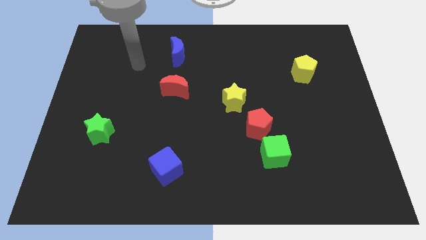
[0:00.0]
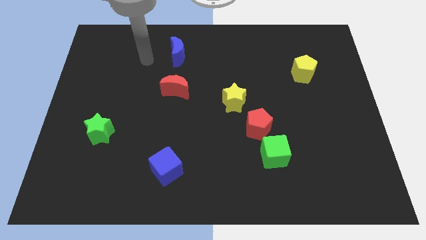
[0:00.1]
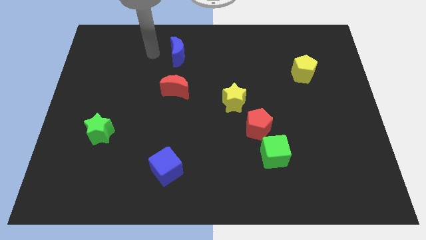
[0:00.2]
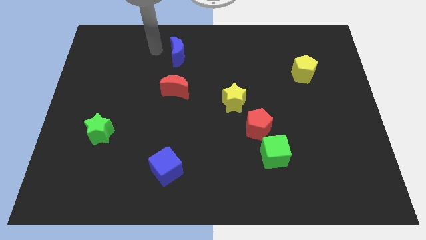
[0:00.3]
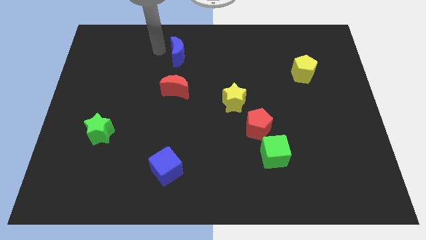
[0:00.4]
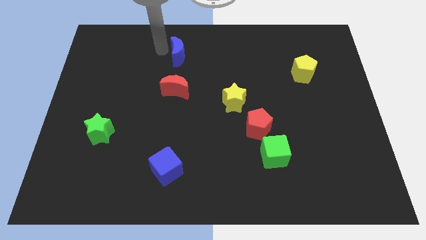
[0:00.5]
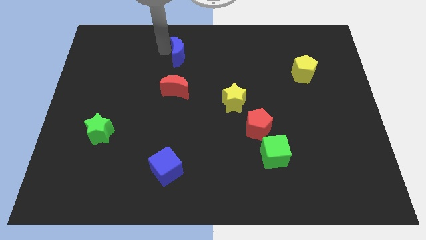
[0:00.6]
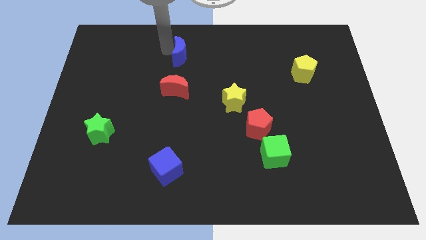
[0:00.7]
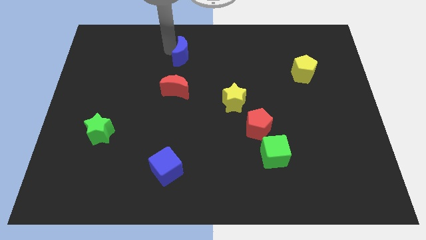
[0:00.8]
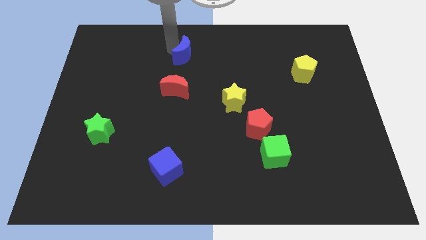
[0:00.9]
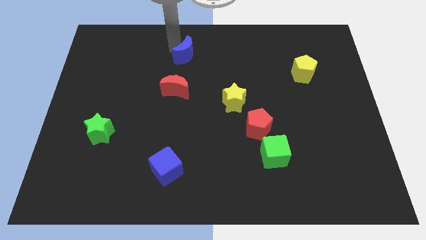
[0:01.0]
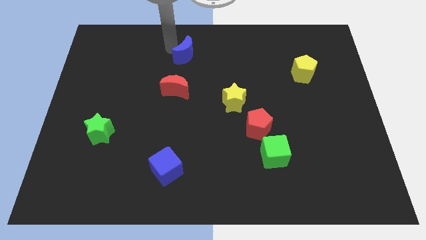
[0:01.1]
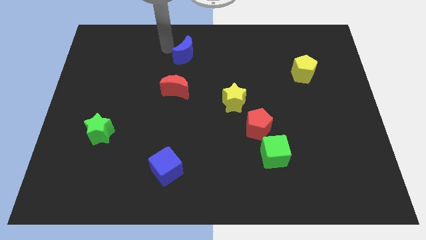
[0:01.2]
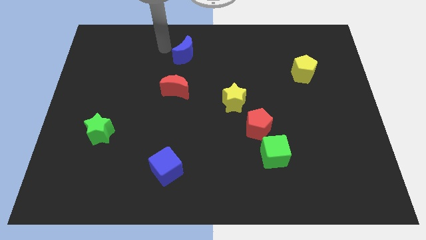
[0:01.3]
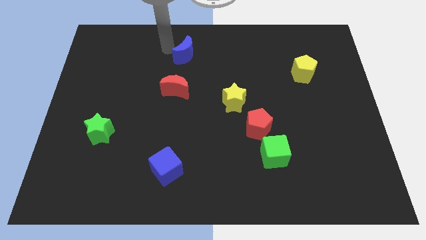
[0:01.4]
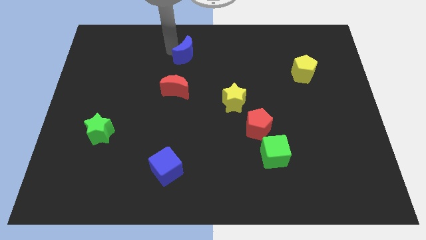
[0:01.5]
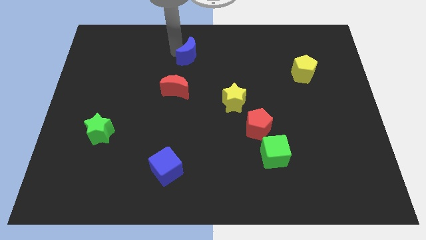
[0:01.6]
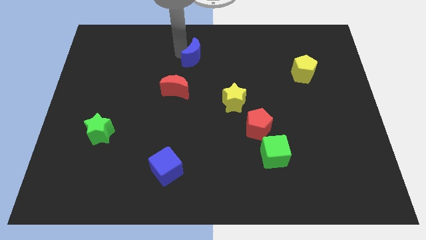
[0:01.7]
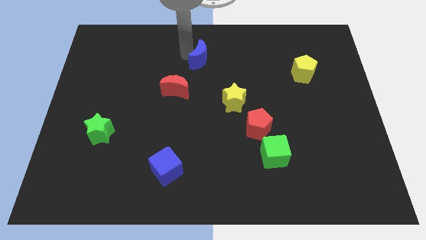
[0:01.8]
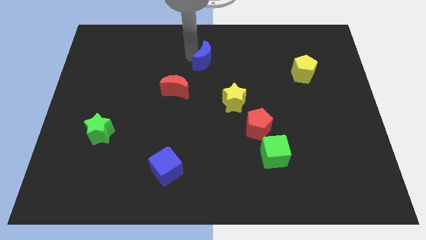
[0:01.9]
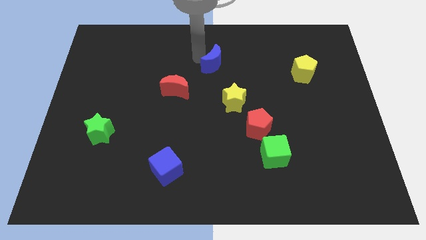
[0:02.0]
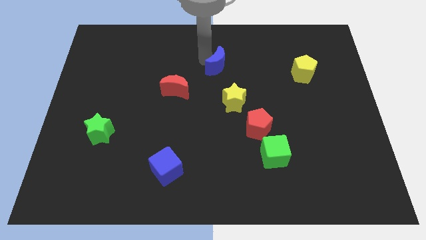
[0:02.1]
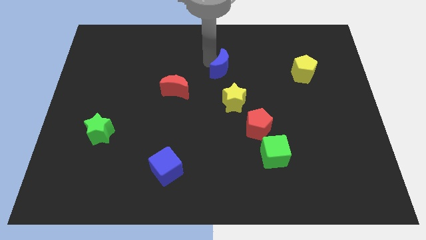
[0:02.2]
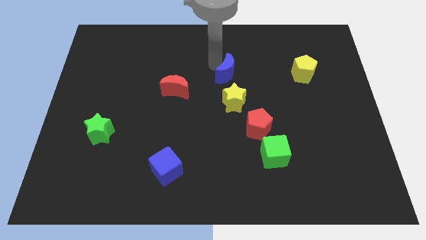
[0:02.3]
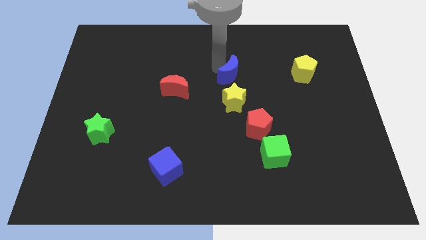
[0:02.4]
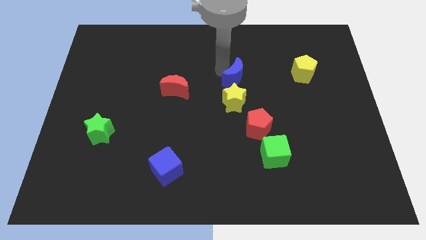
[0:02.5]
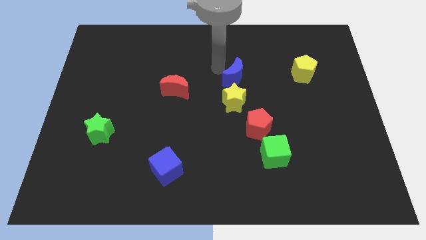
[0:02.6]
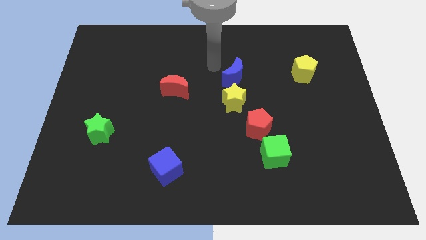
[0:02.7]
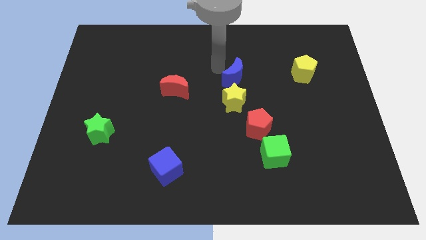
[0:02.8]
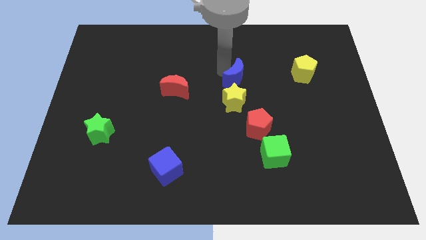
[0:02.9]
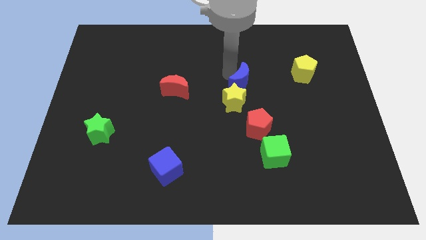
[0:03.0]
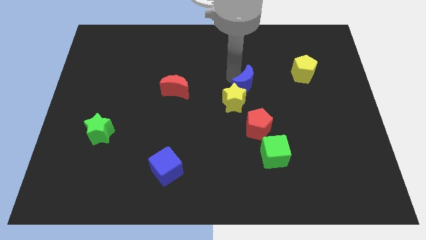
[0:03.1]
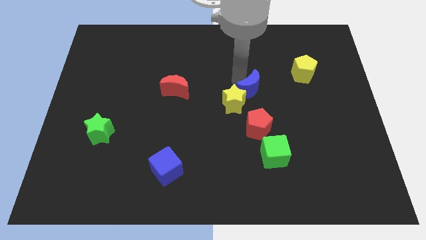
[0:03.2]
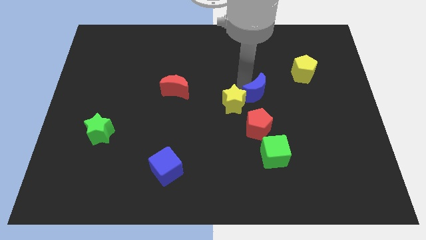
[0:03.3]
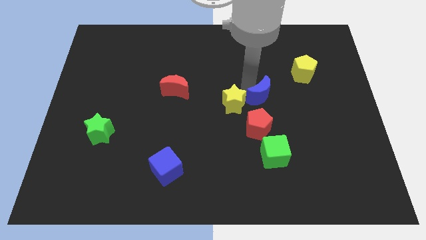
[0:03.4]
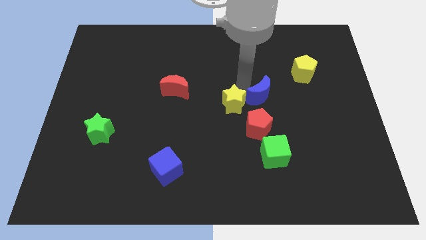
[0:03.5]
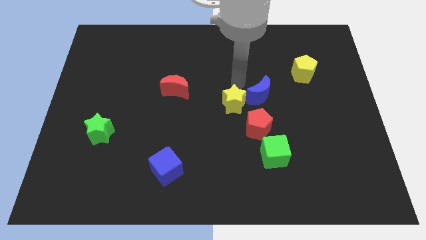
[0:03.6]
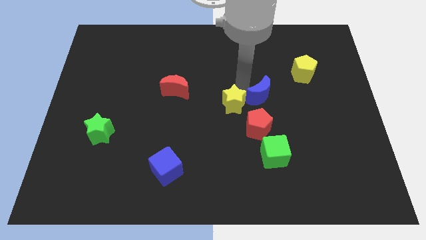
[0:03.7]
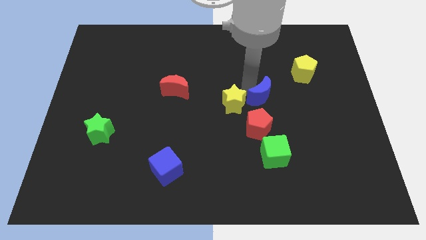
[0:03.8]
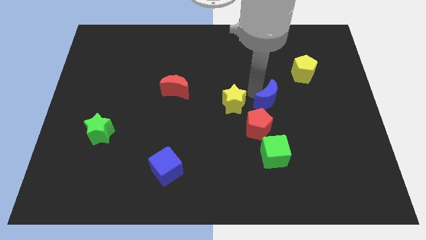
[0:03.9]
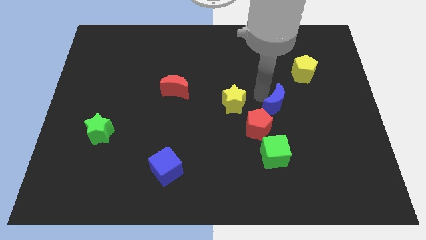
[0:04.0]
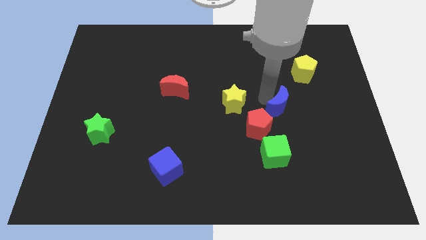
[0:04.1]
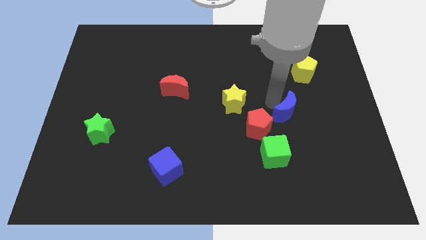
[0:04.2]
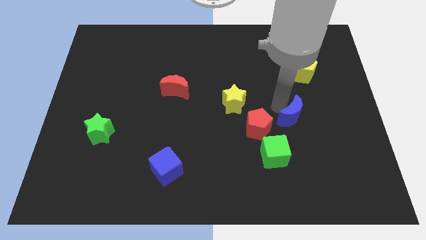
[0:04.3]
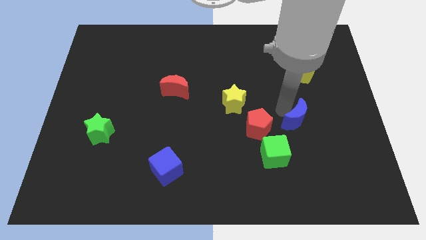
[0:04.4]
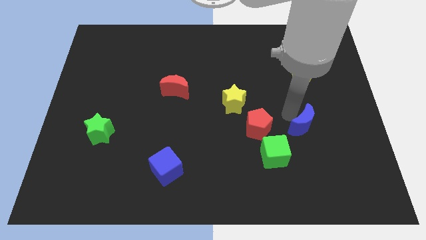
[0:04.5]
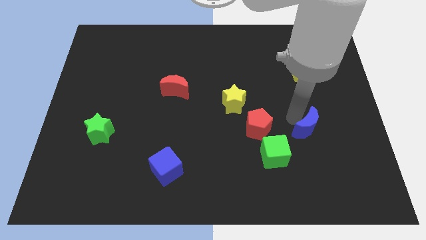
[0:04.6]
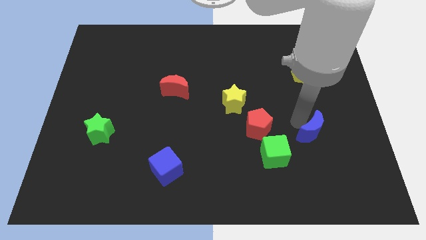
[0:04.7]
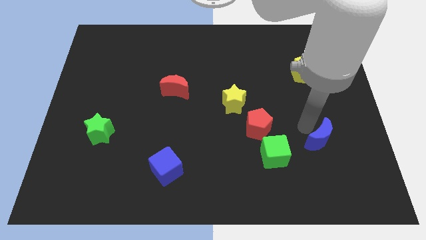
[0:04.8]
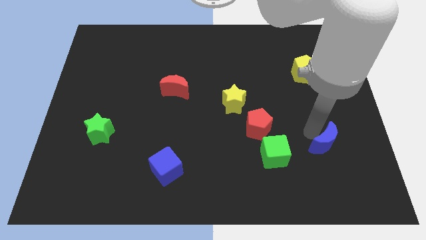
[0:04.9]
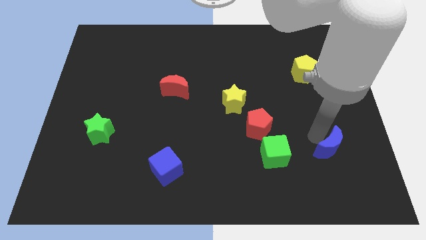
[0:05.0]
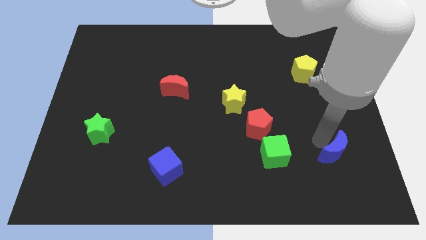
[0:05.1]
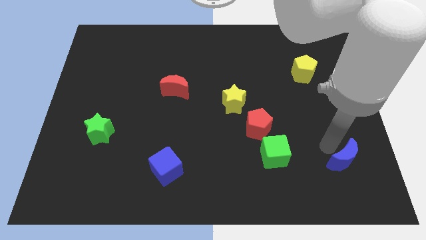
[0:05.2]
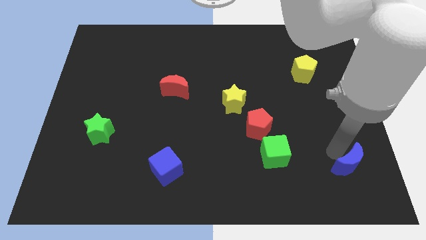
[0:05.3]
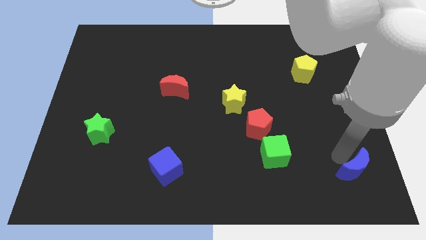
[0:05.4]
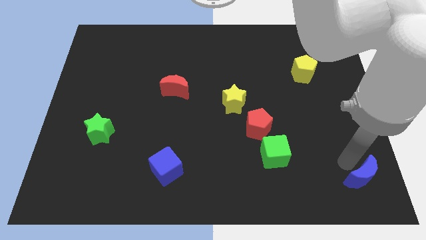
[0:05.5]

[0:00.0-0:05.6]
slide the blue moon to the bottom right
